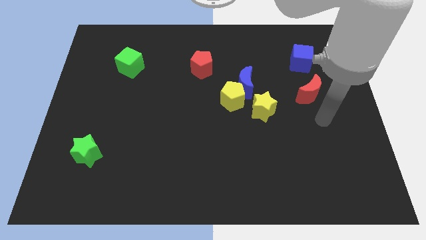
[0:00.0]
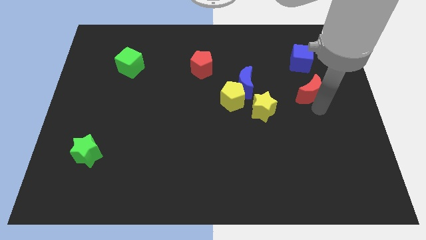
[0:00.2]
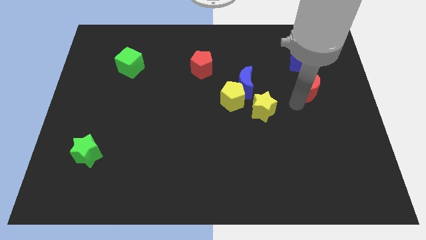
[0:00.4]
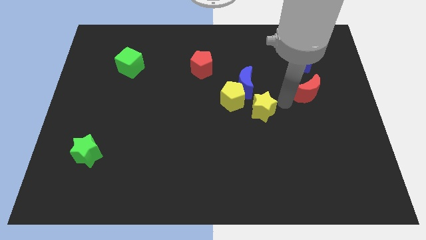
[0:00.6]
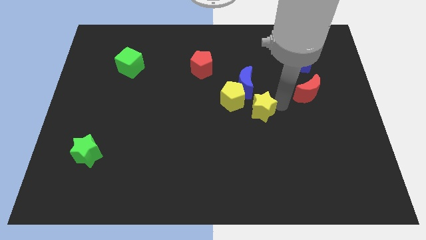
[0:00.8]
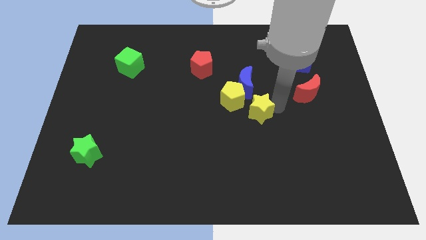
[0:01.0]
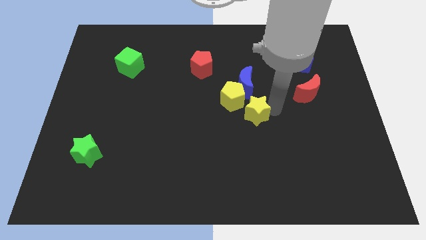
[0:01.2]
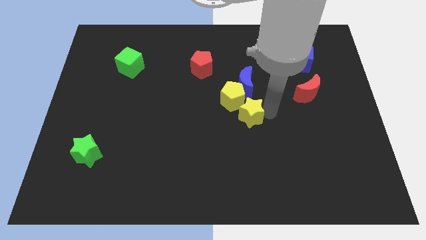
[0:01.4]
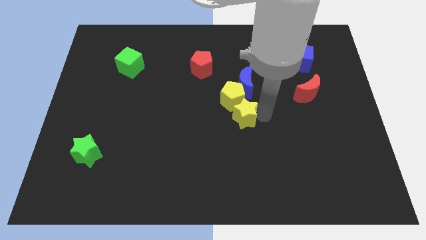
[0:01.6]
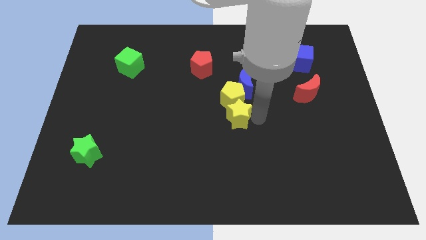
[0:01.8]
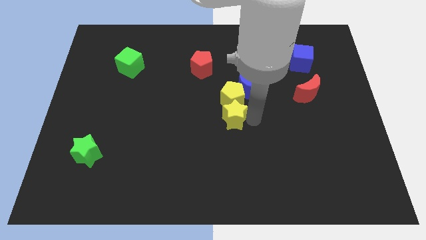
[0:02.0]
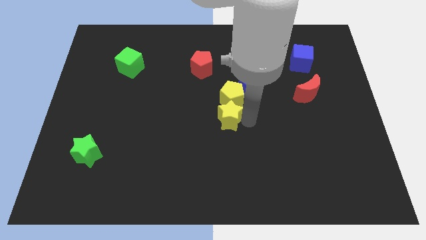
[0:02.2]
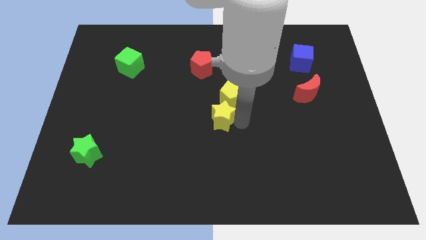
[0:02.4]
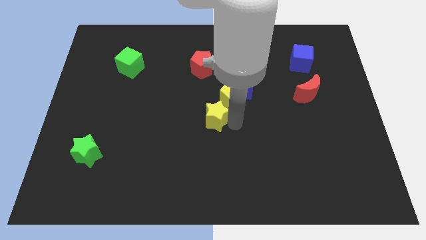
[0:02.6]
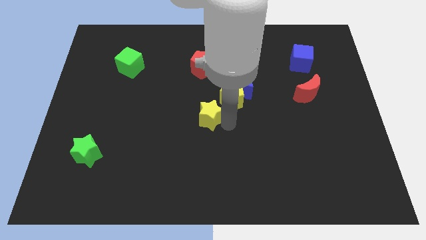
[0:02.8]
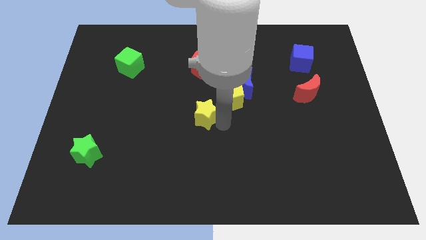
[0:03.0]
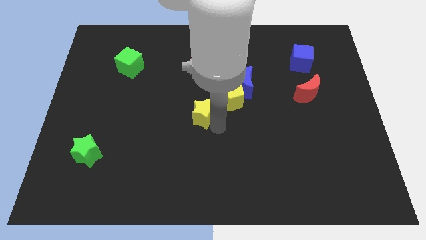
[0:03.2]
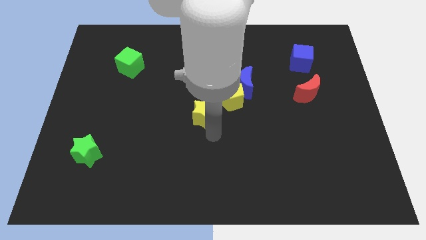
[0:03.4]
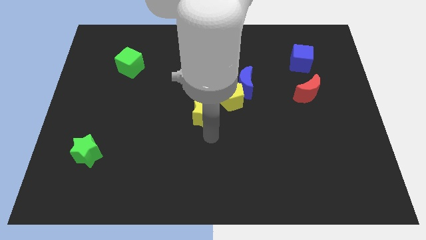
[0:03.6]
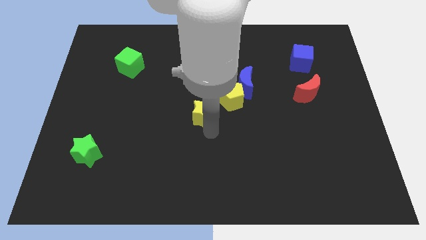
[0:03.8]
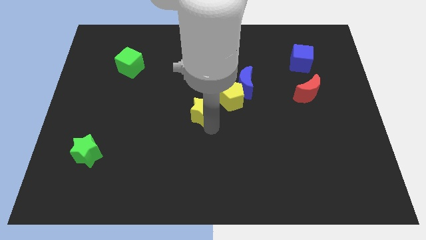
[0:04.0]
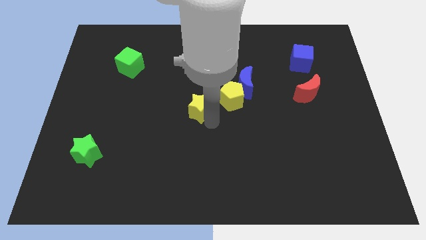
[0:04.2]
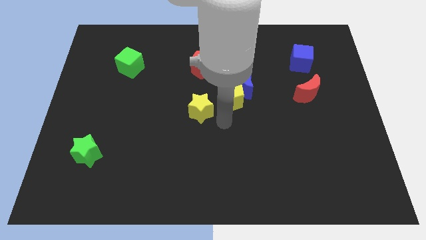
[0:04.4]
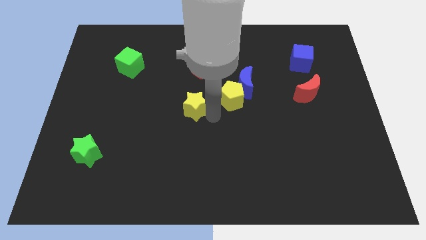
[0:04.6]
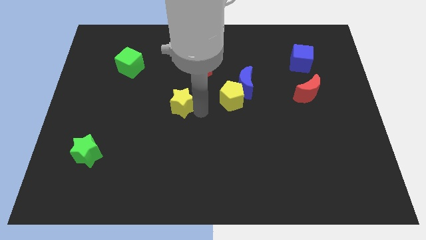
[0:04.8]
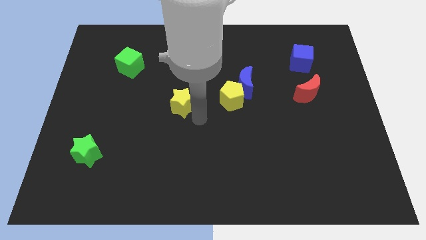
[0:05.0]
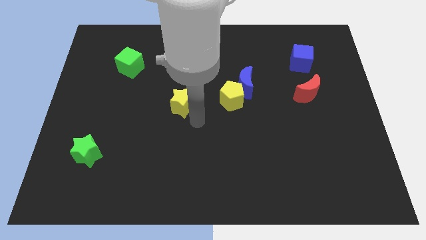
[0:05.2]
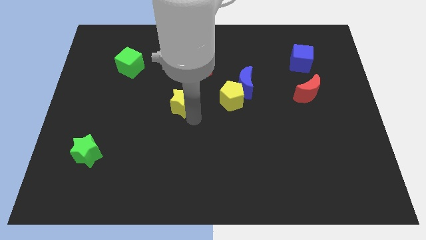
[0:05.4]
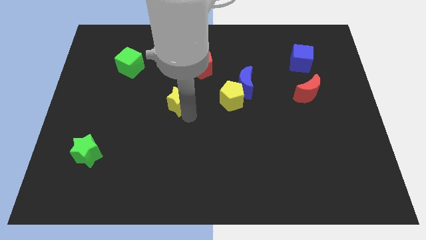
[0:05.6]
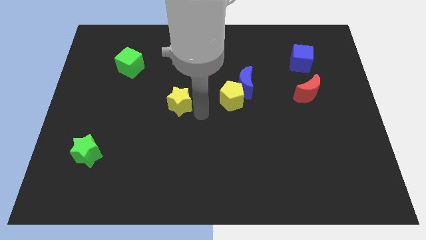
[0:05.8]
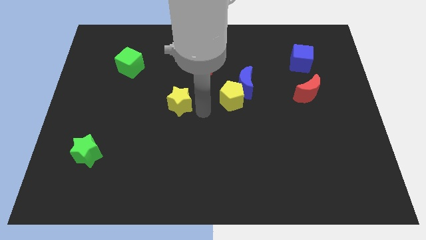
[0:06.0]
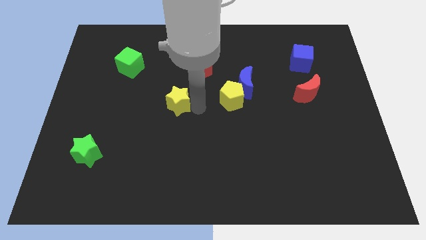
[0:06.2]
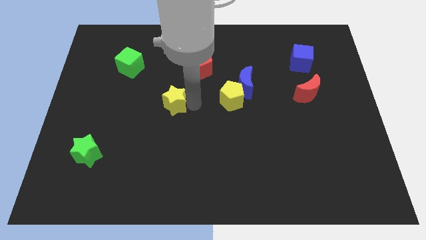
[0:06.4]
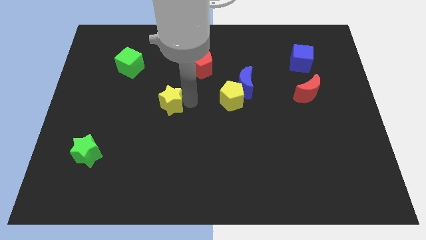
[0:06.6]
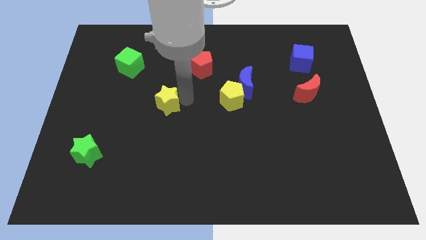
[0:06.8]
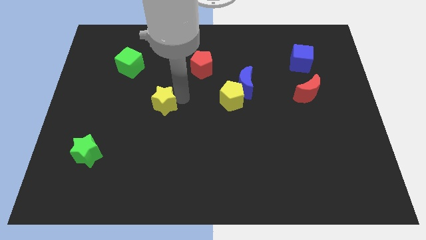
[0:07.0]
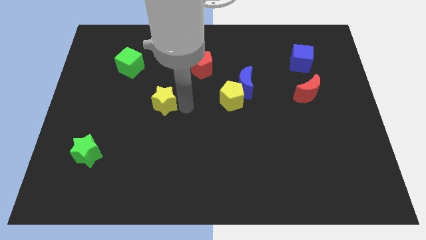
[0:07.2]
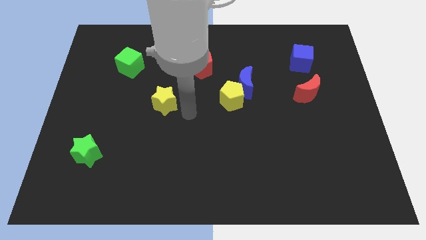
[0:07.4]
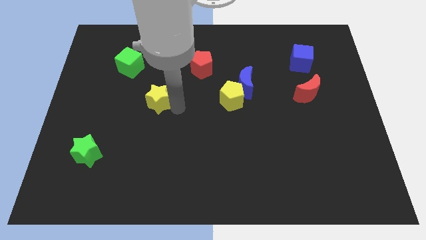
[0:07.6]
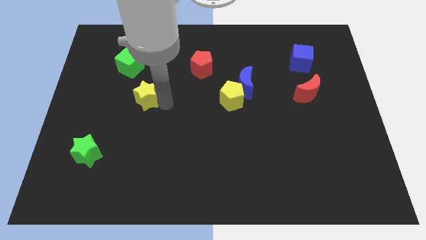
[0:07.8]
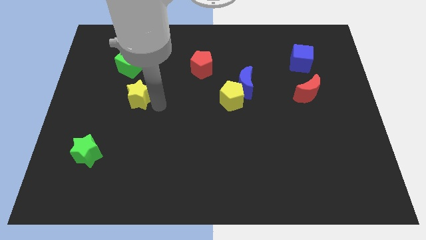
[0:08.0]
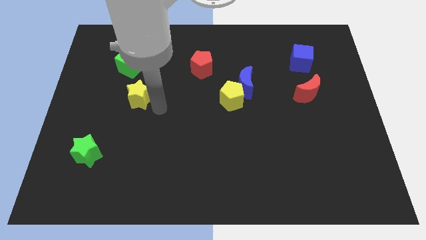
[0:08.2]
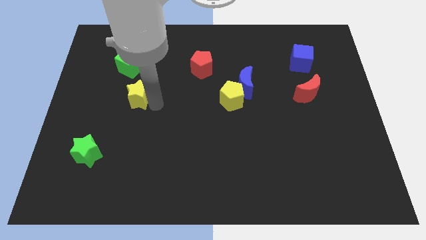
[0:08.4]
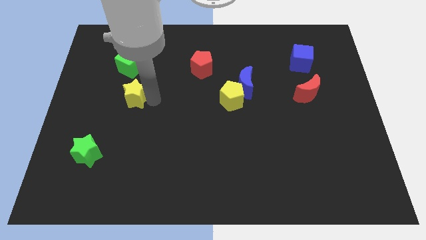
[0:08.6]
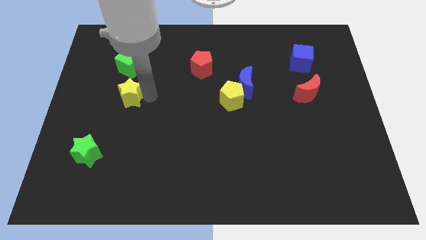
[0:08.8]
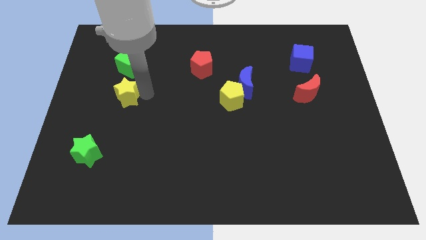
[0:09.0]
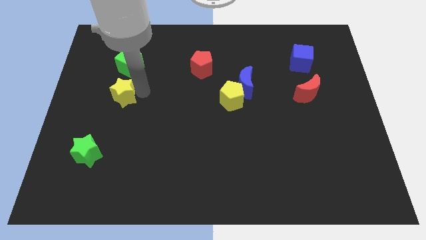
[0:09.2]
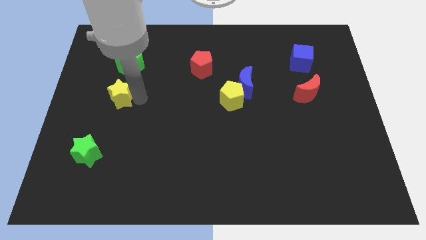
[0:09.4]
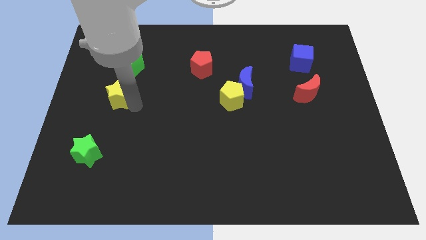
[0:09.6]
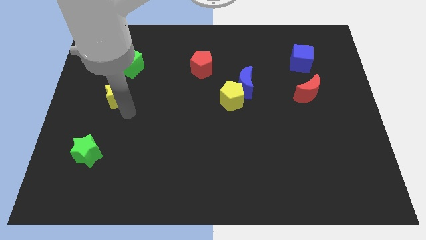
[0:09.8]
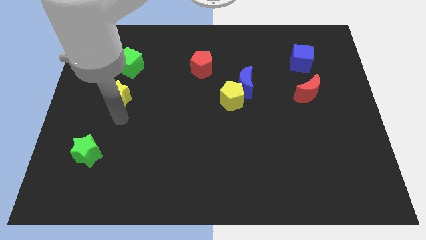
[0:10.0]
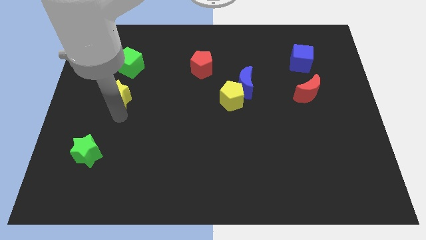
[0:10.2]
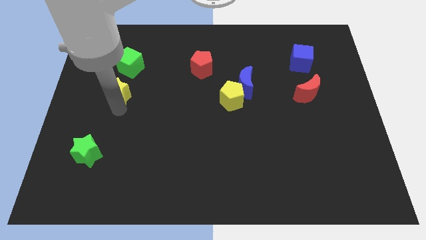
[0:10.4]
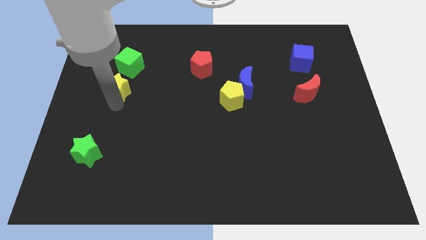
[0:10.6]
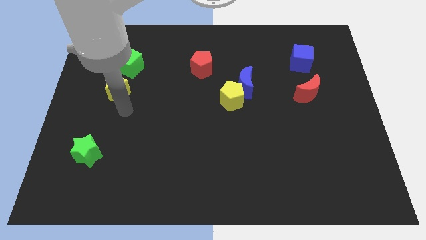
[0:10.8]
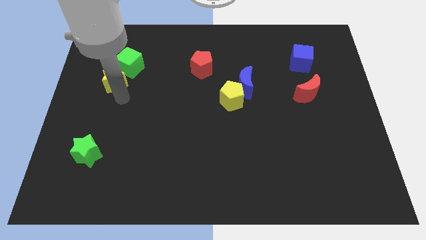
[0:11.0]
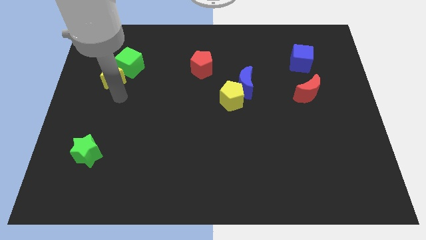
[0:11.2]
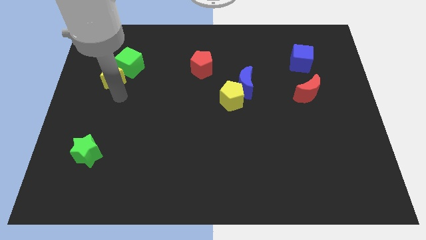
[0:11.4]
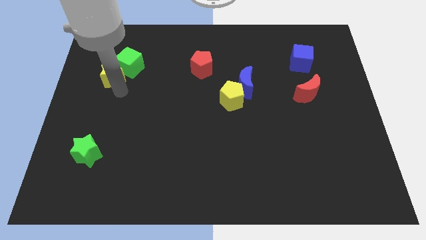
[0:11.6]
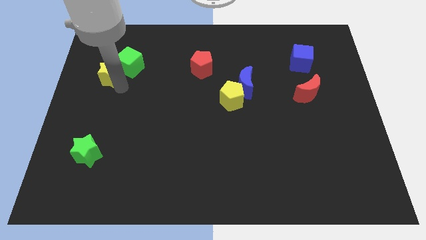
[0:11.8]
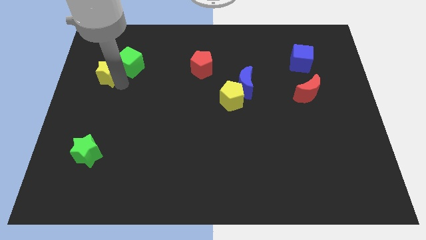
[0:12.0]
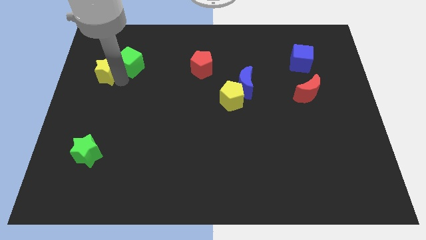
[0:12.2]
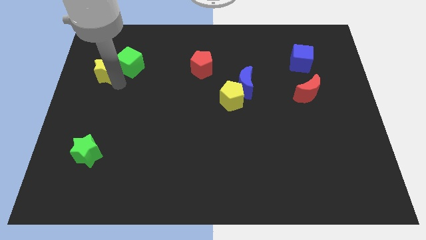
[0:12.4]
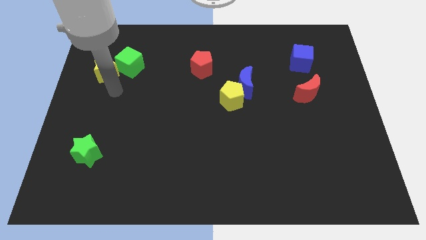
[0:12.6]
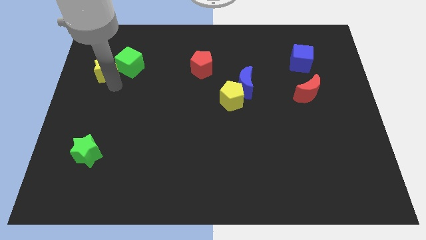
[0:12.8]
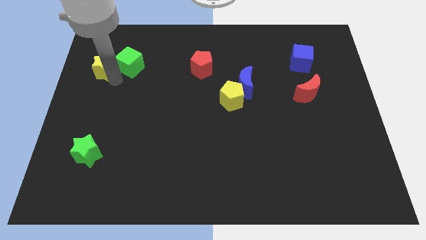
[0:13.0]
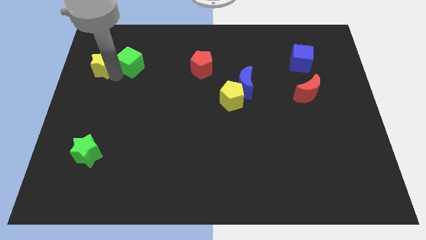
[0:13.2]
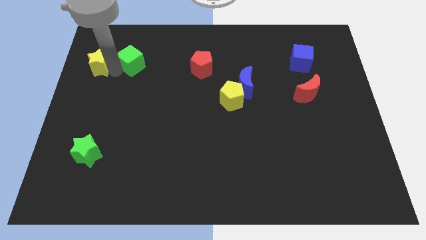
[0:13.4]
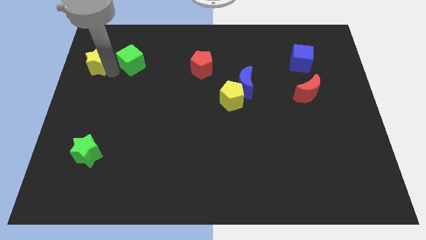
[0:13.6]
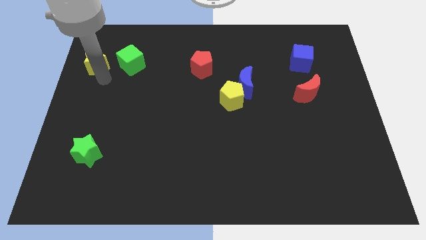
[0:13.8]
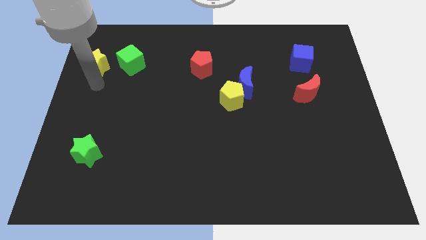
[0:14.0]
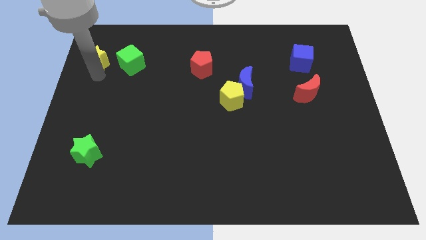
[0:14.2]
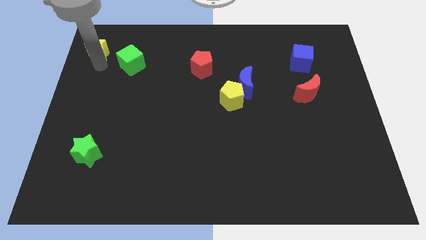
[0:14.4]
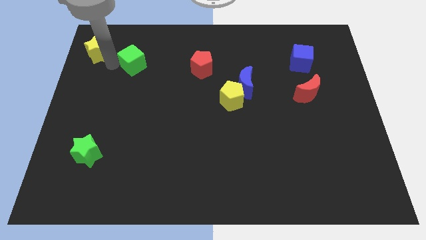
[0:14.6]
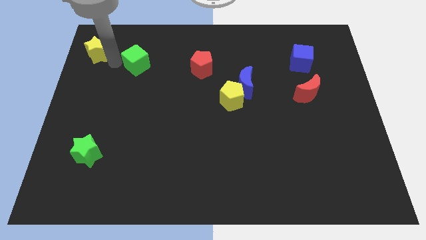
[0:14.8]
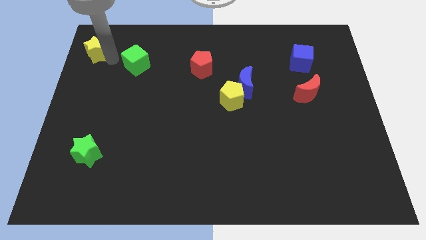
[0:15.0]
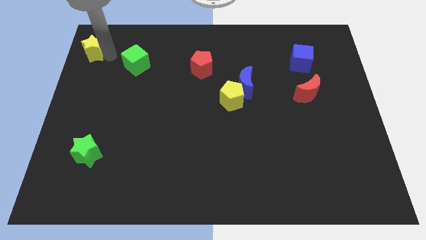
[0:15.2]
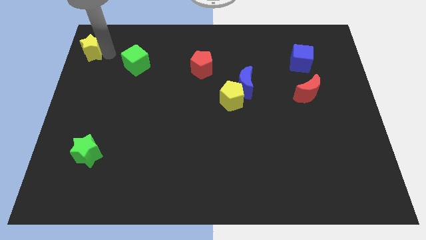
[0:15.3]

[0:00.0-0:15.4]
push the yellow star to the top left
